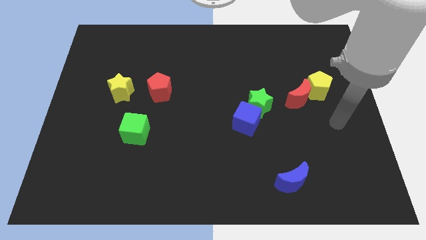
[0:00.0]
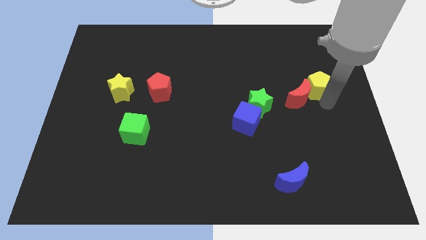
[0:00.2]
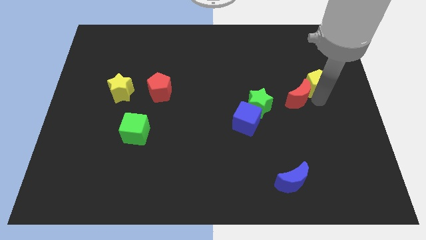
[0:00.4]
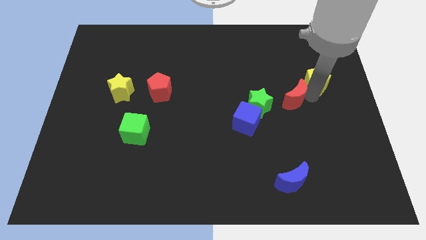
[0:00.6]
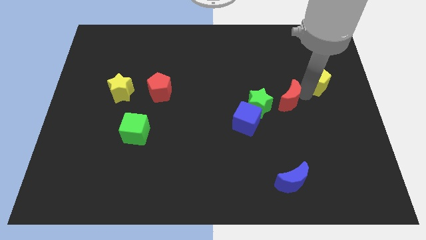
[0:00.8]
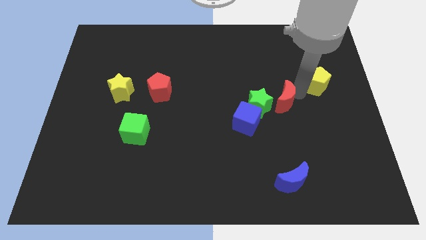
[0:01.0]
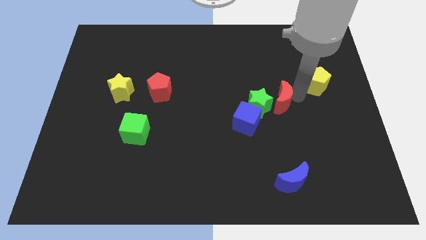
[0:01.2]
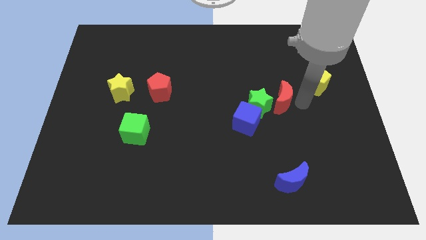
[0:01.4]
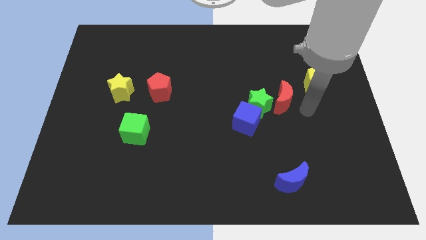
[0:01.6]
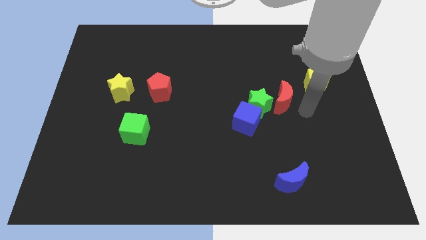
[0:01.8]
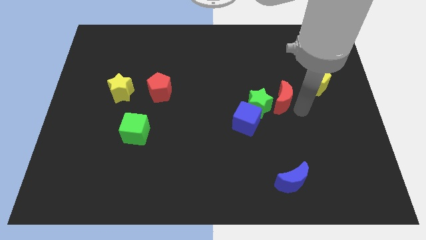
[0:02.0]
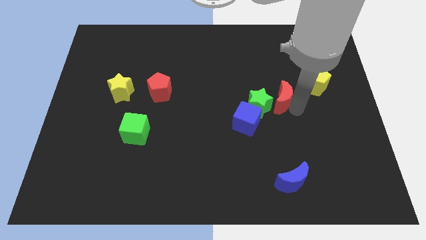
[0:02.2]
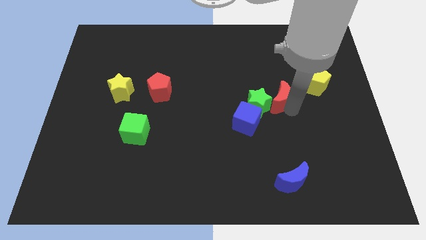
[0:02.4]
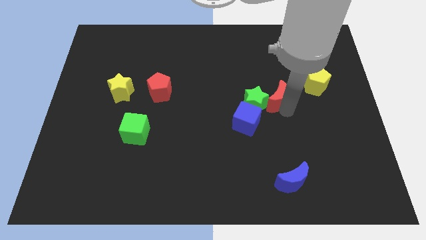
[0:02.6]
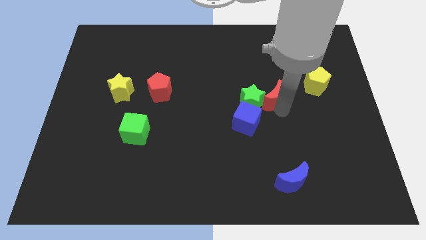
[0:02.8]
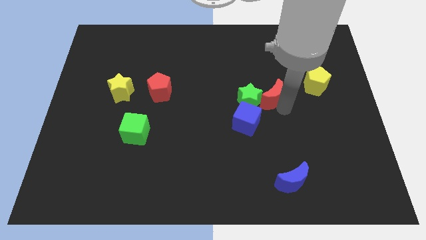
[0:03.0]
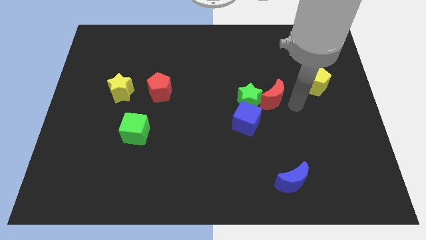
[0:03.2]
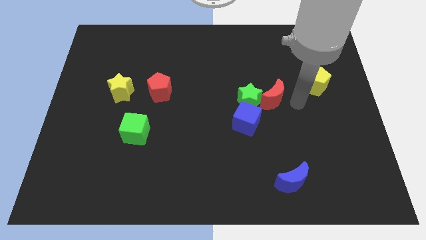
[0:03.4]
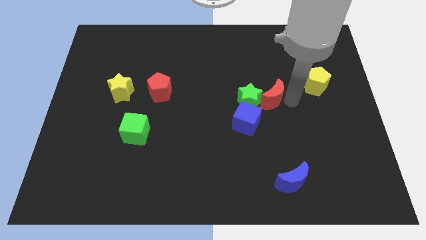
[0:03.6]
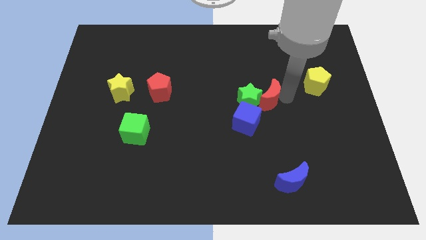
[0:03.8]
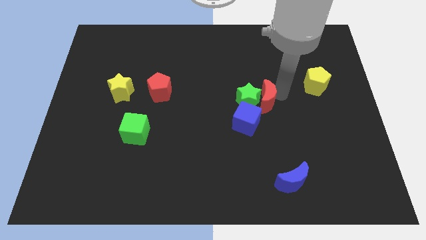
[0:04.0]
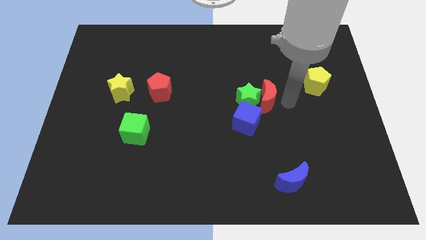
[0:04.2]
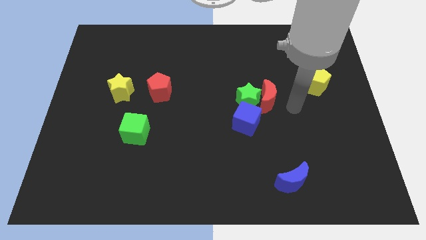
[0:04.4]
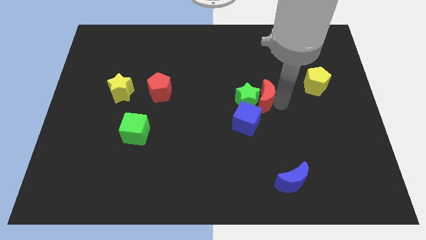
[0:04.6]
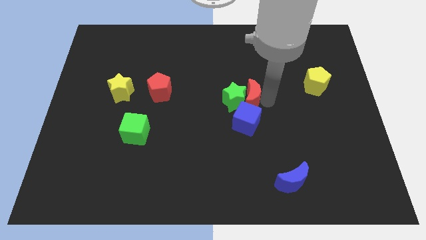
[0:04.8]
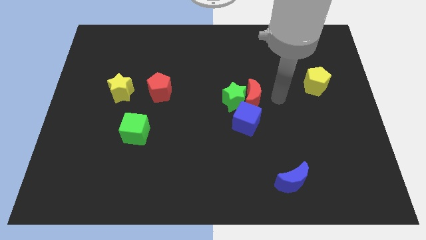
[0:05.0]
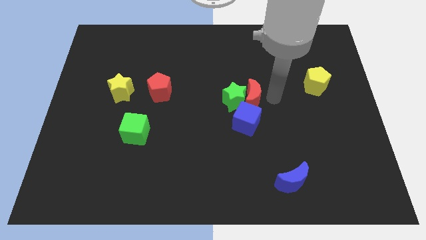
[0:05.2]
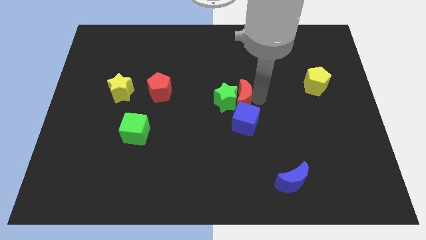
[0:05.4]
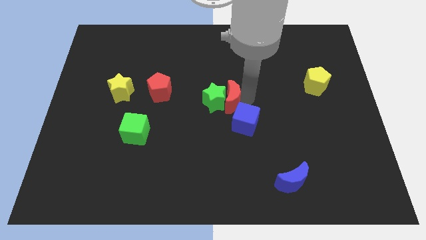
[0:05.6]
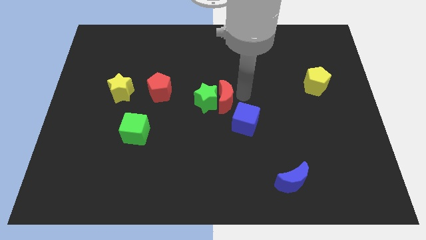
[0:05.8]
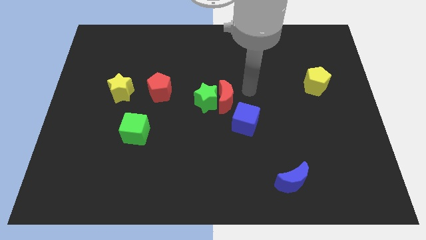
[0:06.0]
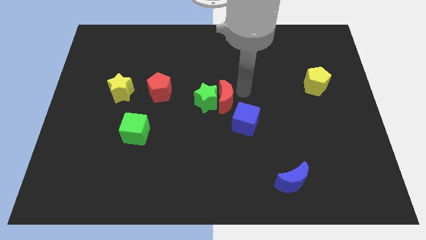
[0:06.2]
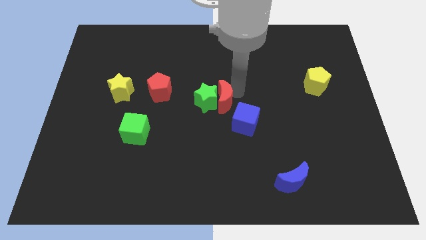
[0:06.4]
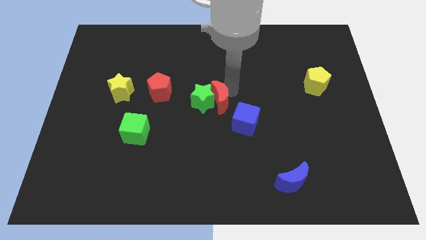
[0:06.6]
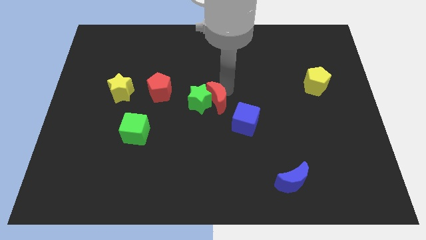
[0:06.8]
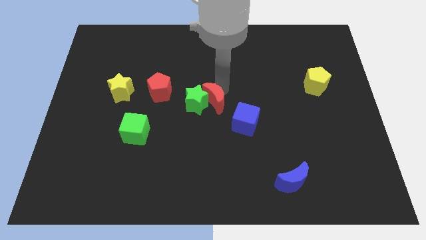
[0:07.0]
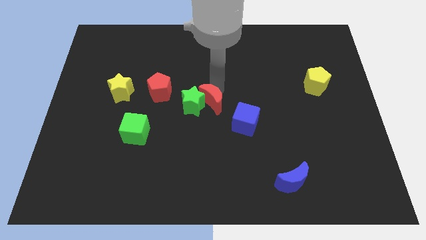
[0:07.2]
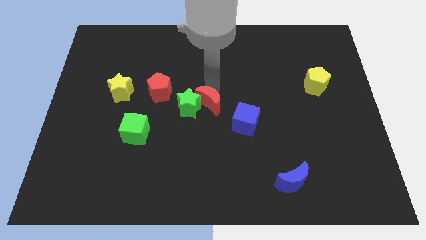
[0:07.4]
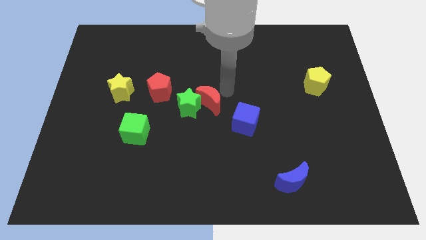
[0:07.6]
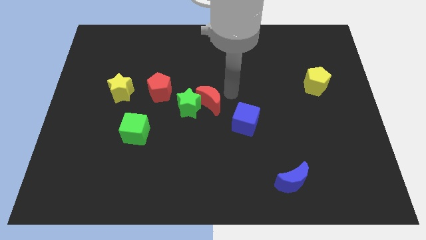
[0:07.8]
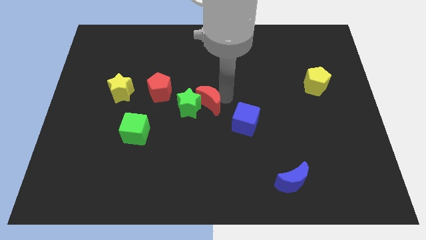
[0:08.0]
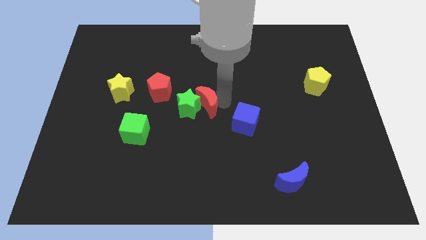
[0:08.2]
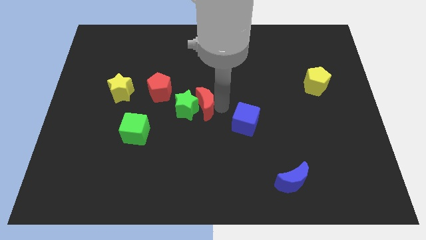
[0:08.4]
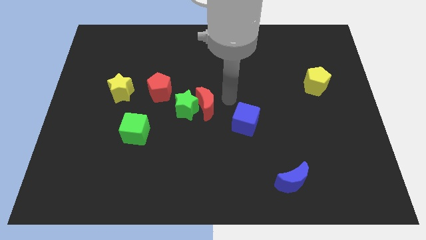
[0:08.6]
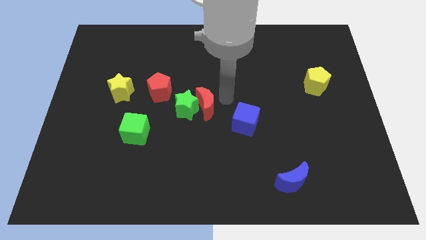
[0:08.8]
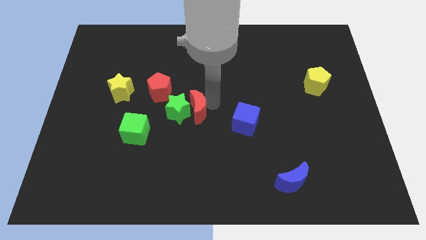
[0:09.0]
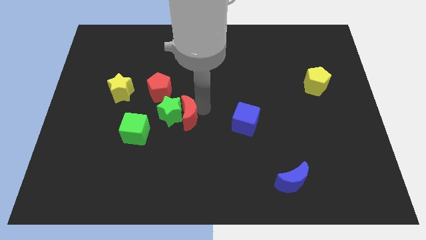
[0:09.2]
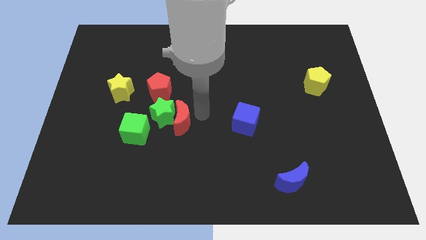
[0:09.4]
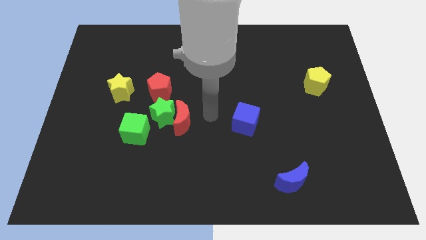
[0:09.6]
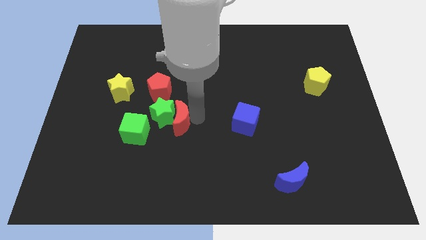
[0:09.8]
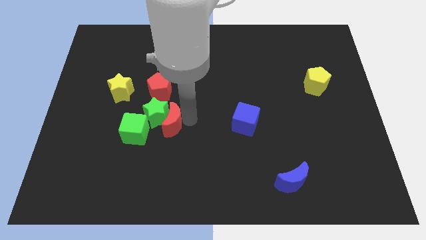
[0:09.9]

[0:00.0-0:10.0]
move the red moon below the red pentagon

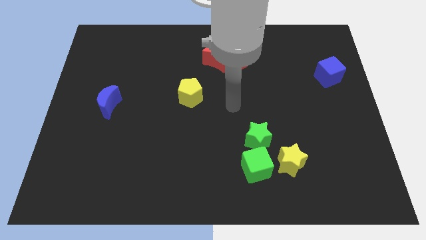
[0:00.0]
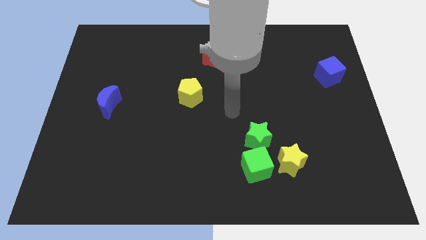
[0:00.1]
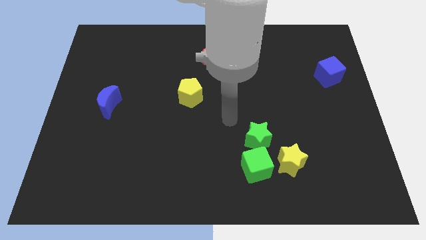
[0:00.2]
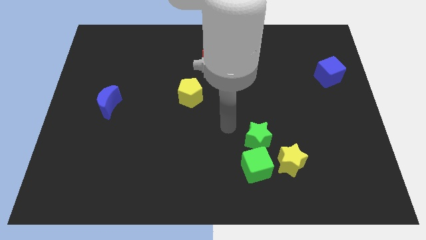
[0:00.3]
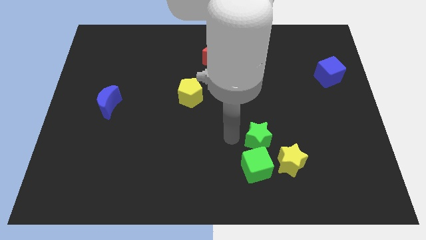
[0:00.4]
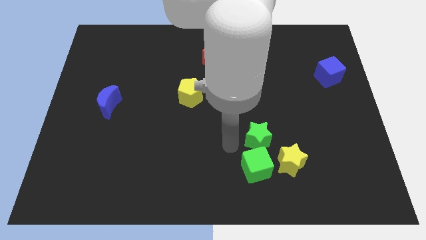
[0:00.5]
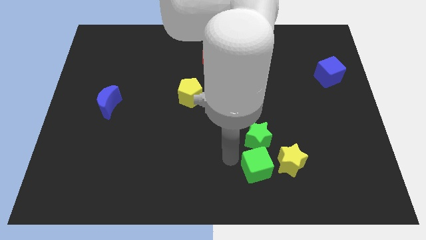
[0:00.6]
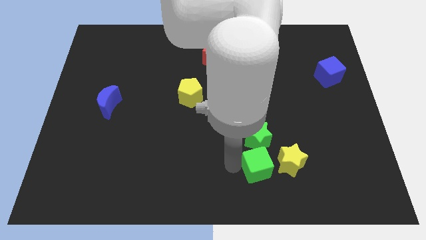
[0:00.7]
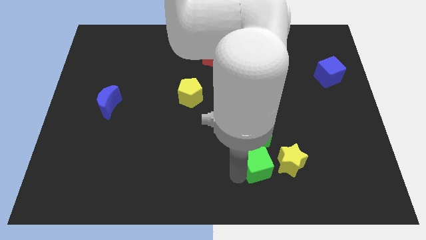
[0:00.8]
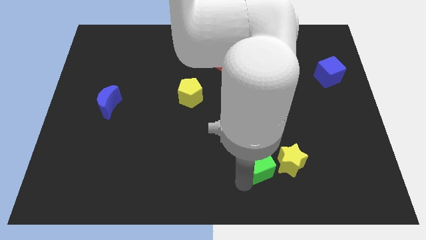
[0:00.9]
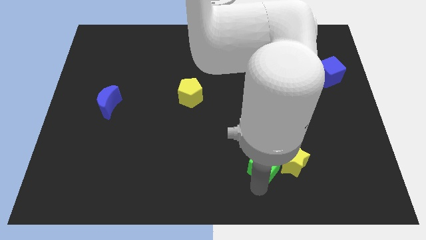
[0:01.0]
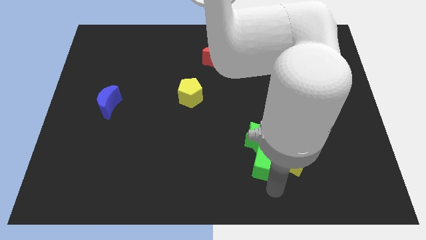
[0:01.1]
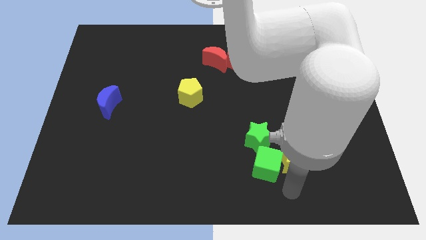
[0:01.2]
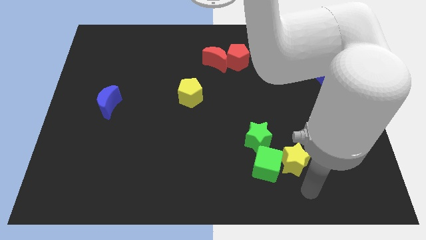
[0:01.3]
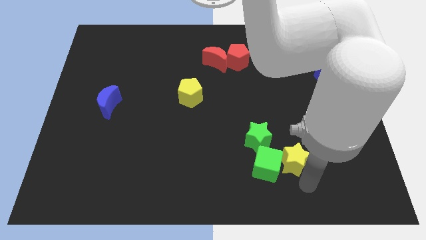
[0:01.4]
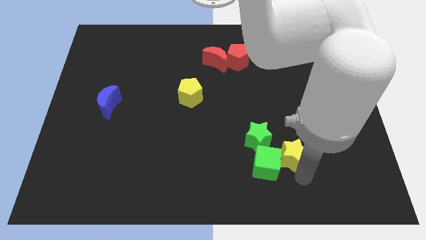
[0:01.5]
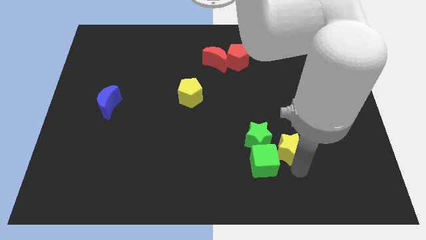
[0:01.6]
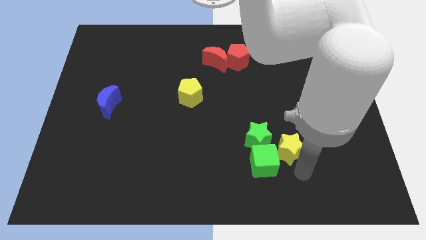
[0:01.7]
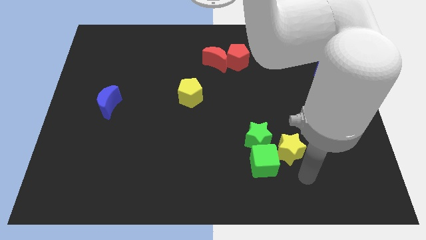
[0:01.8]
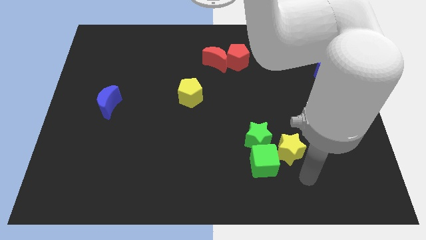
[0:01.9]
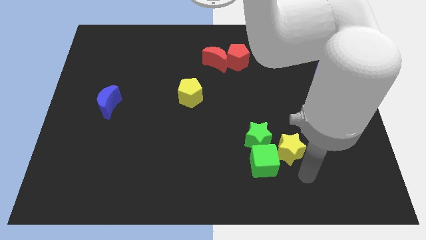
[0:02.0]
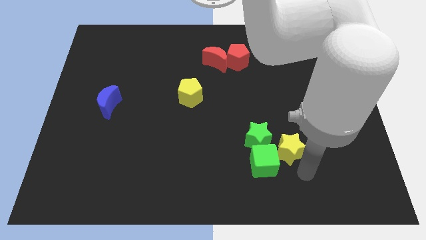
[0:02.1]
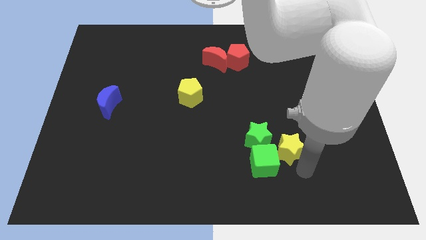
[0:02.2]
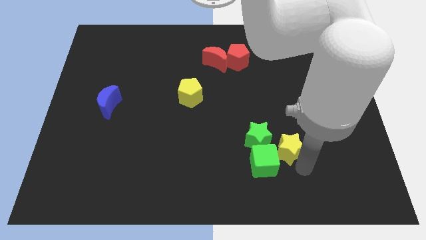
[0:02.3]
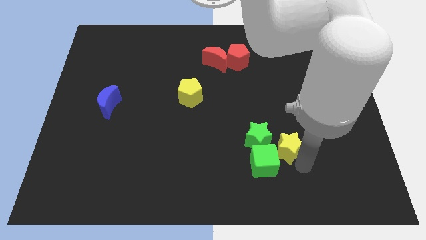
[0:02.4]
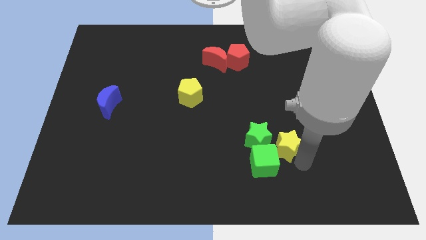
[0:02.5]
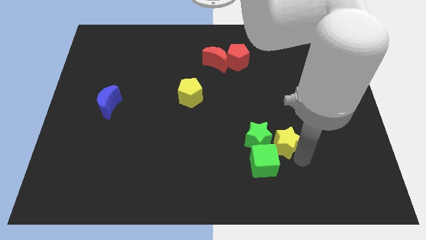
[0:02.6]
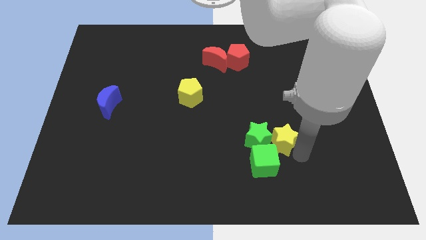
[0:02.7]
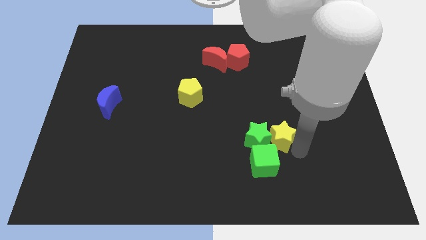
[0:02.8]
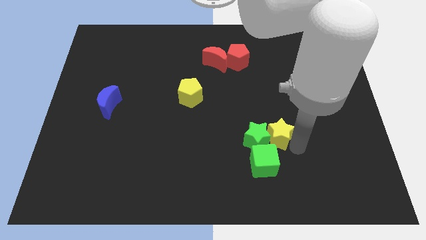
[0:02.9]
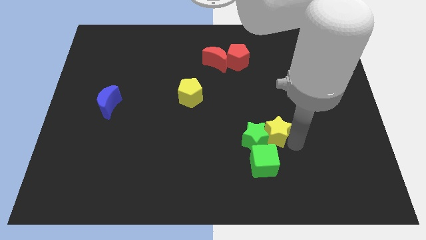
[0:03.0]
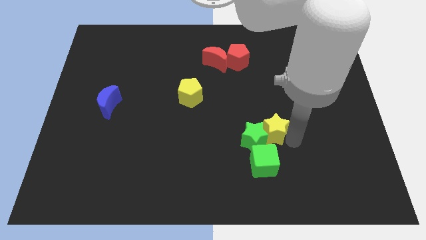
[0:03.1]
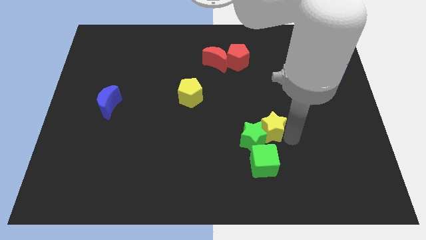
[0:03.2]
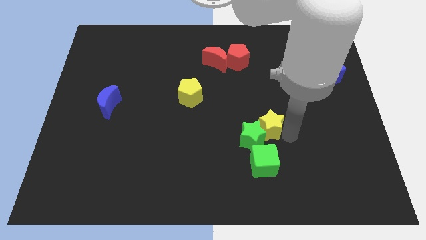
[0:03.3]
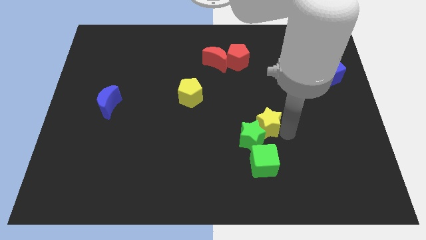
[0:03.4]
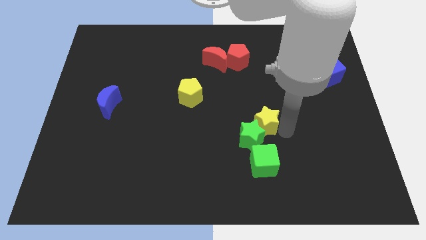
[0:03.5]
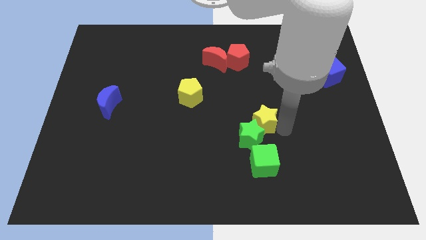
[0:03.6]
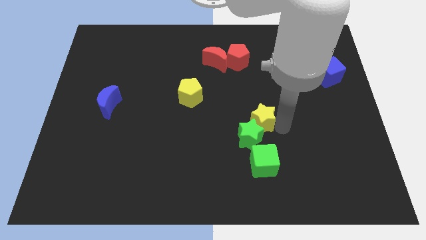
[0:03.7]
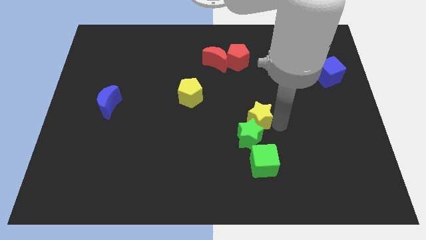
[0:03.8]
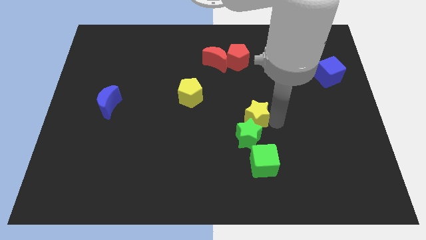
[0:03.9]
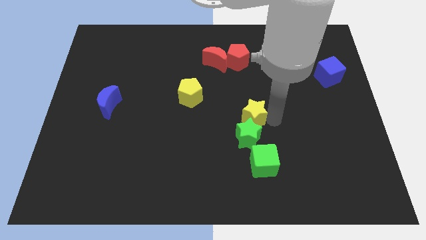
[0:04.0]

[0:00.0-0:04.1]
move the yellow star diagonally up and to the left of the green star
